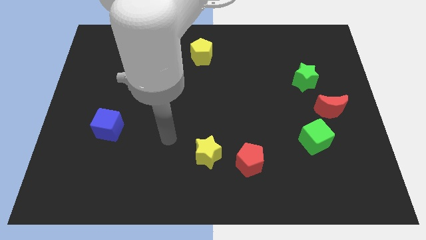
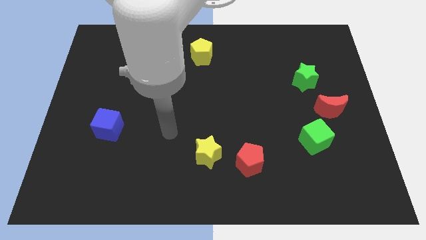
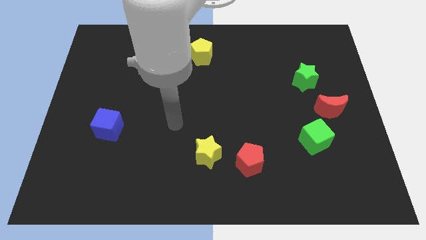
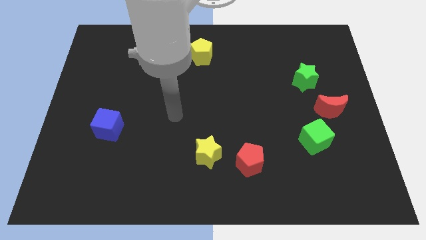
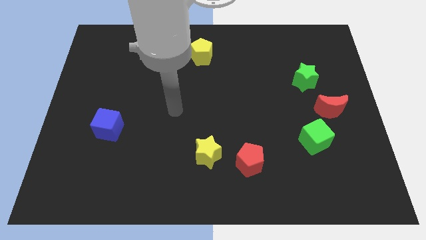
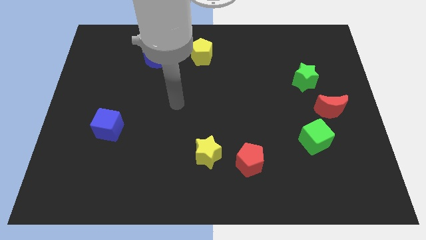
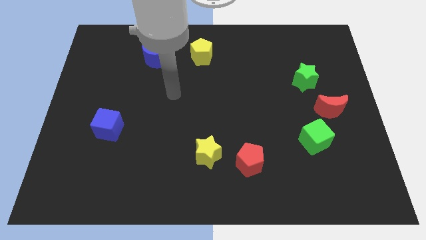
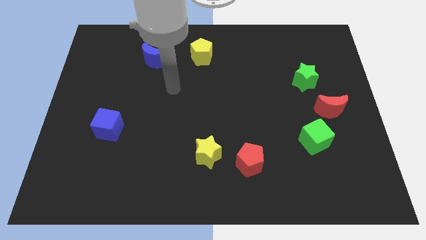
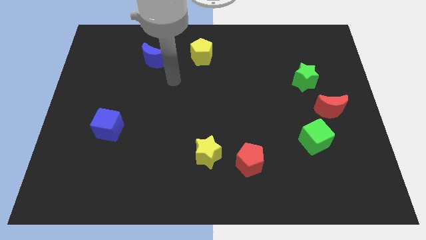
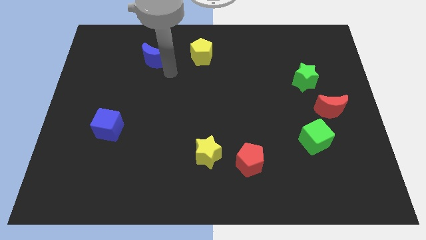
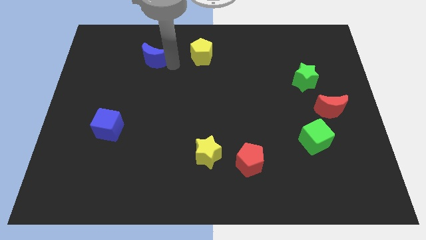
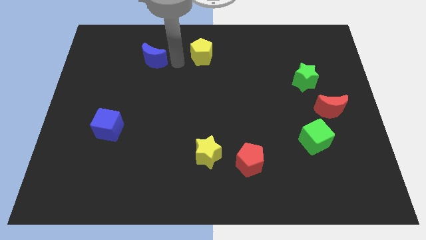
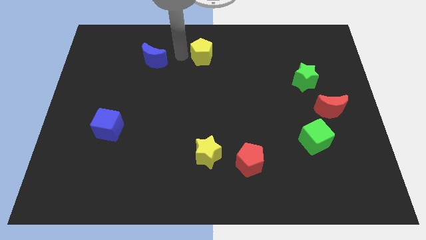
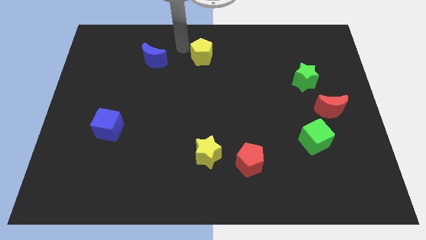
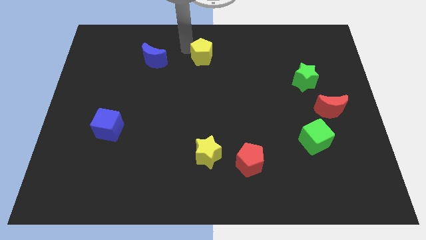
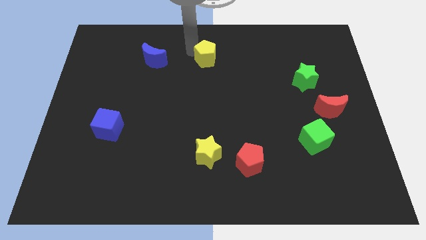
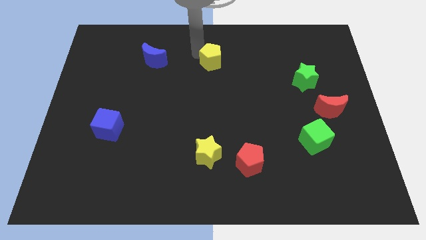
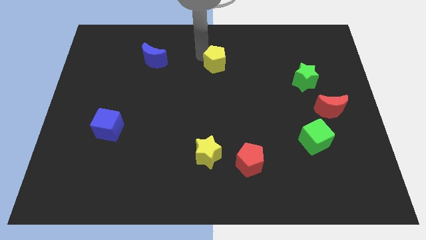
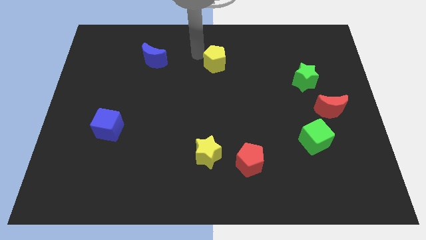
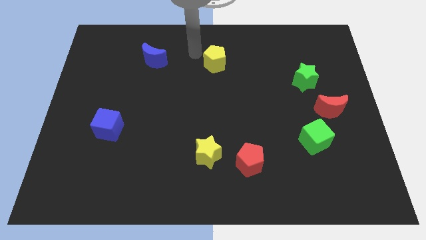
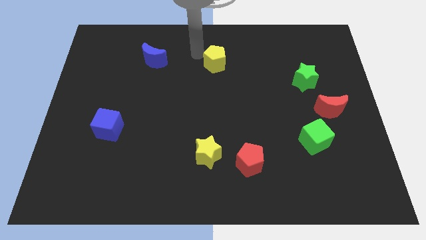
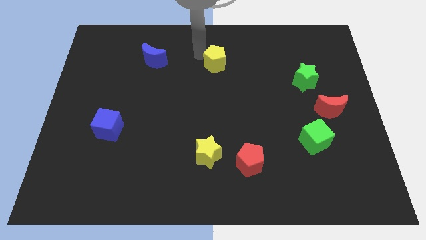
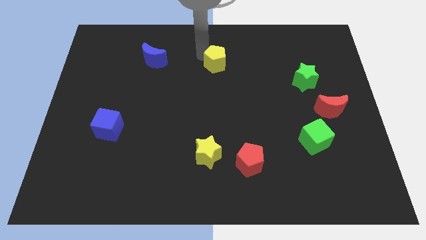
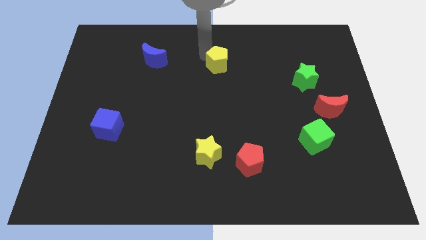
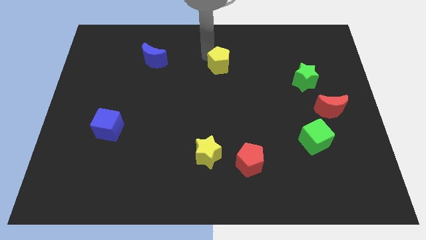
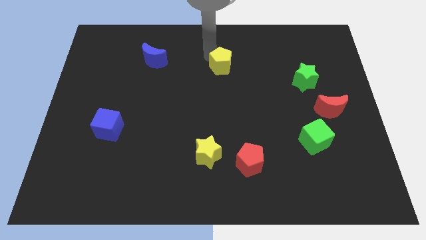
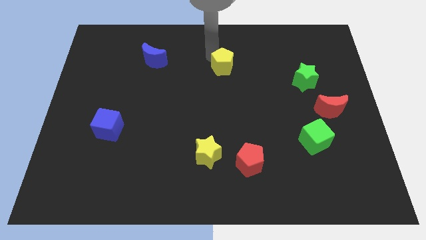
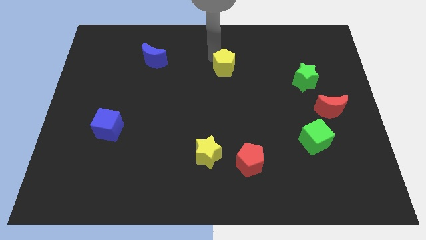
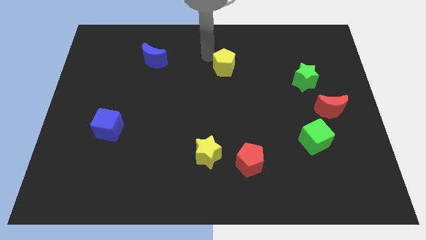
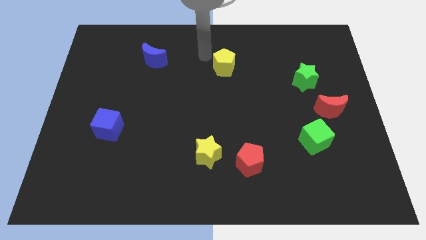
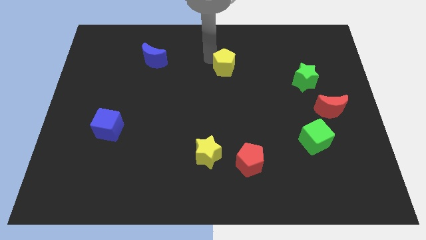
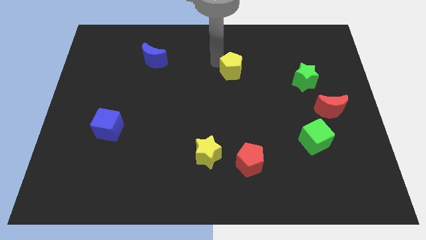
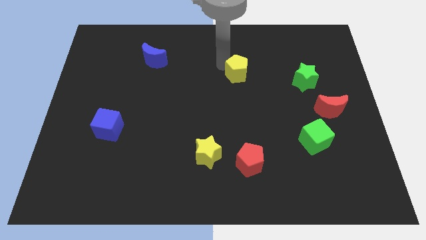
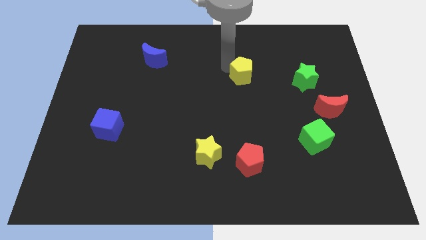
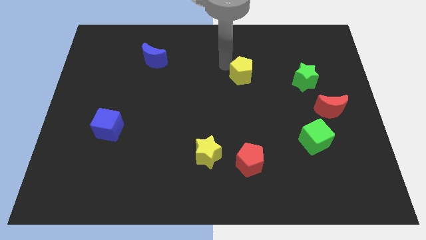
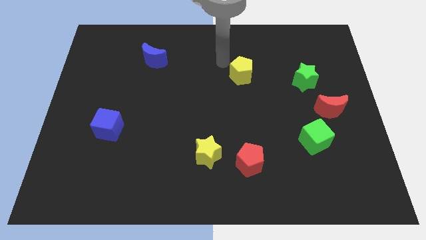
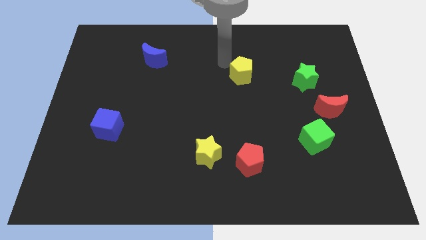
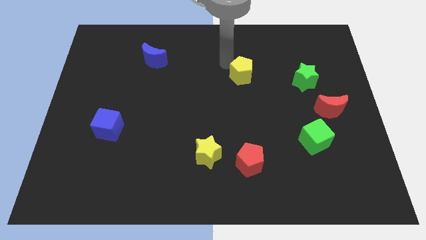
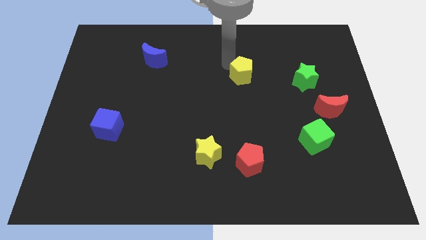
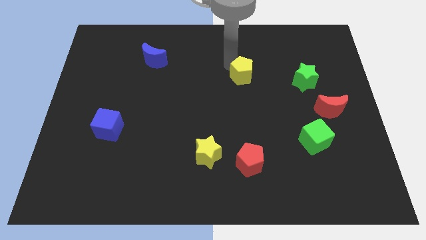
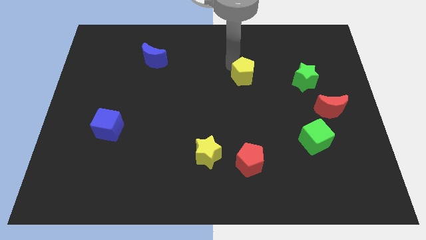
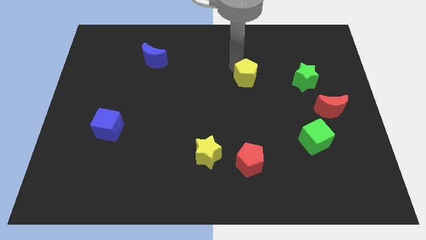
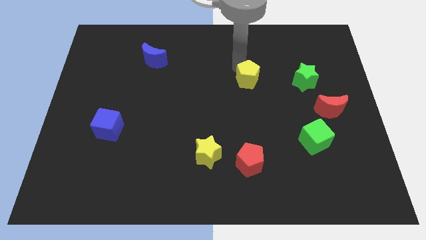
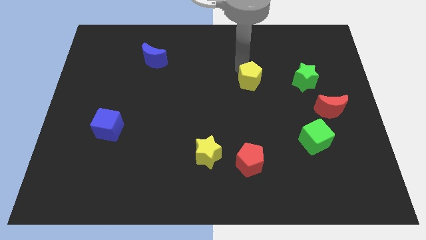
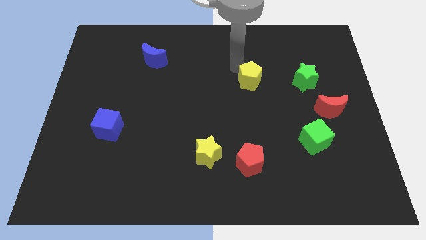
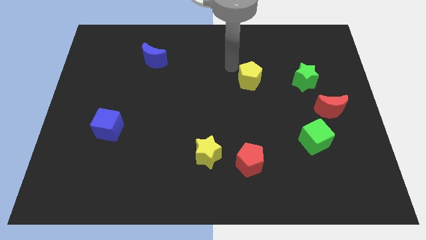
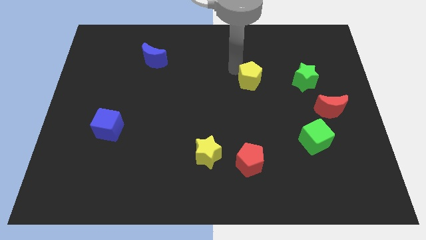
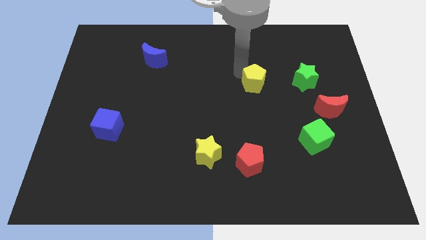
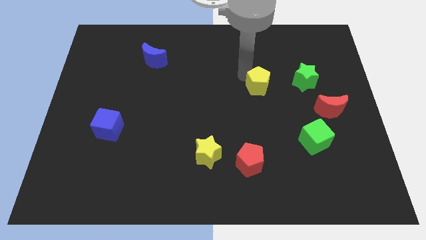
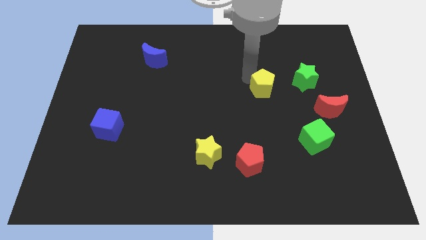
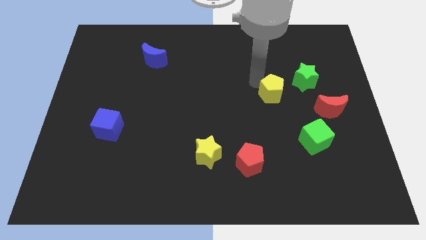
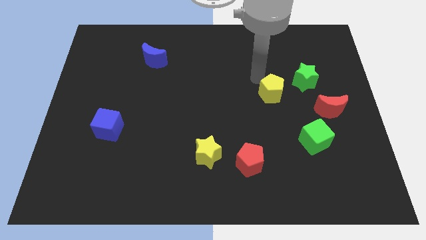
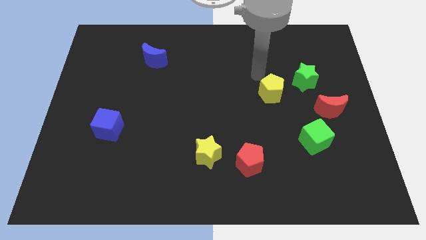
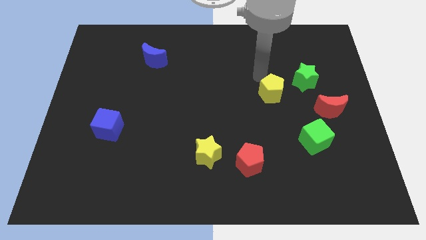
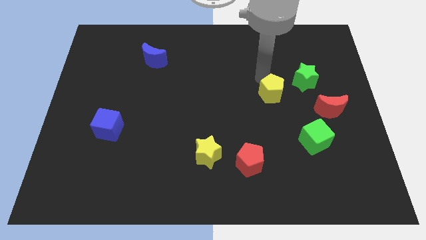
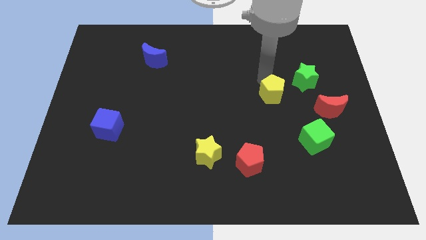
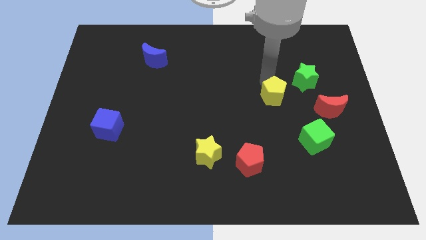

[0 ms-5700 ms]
slide the yellow pentagon to the left side of the red moon

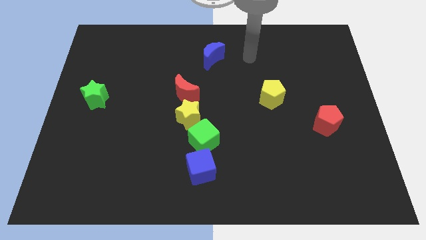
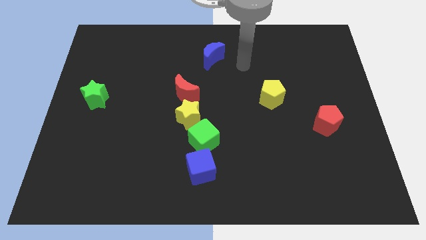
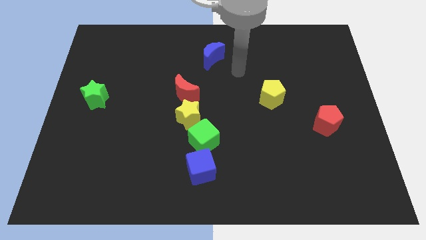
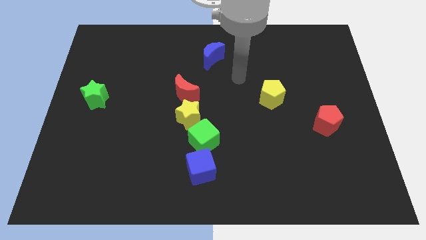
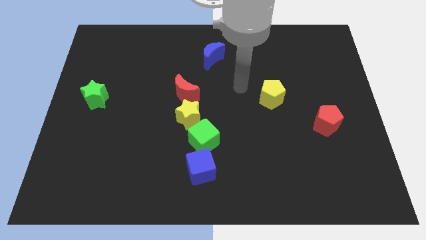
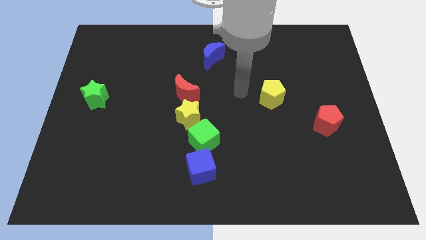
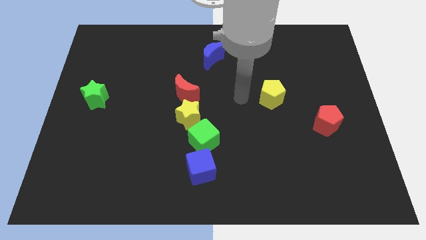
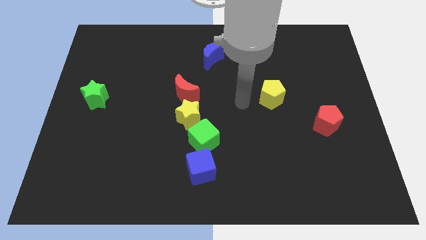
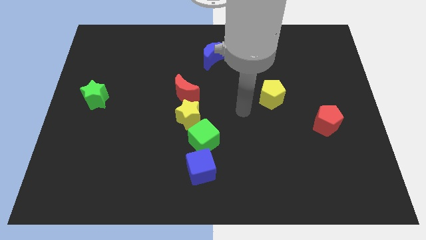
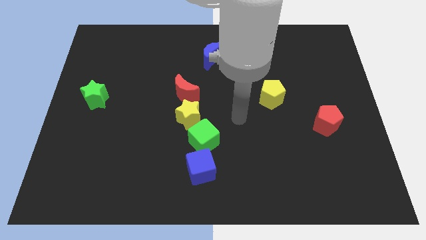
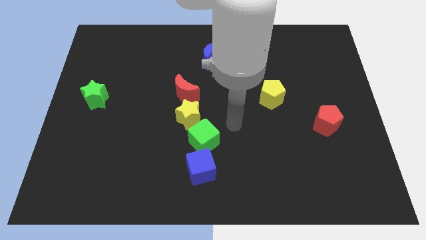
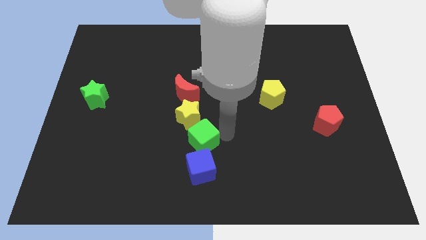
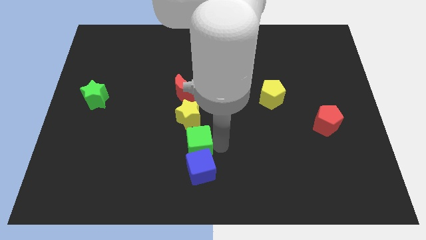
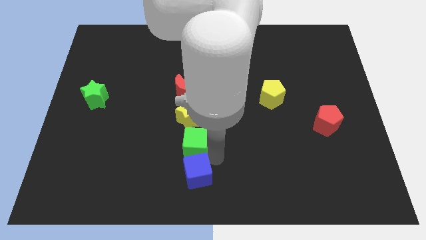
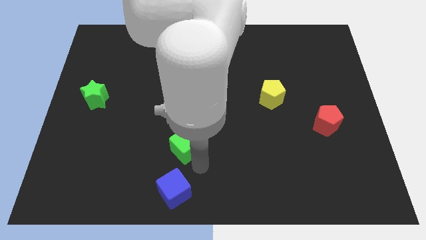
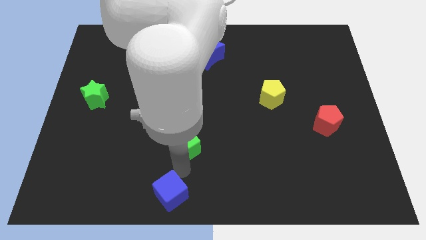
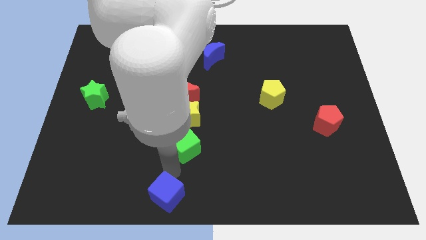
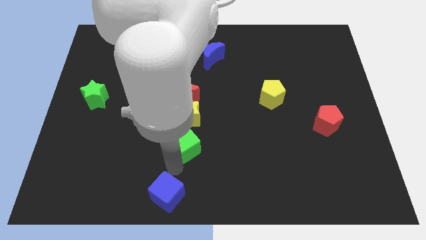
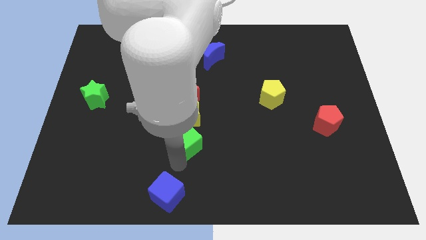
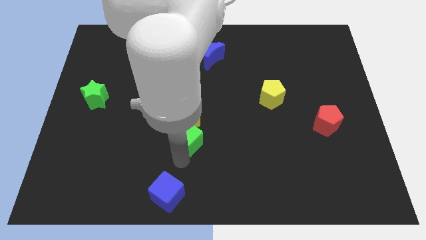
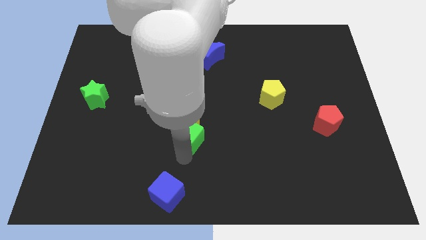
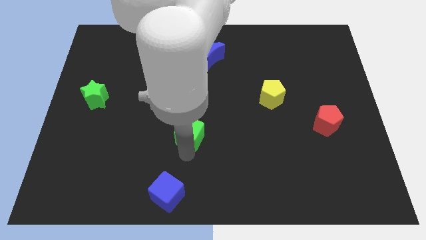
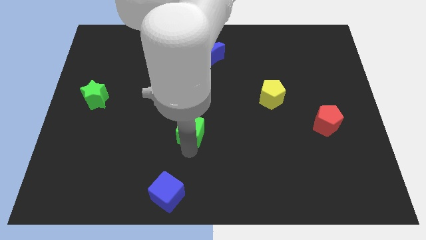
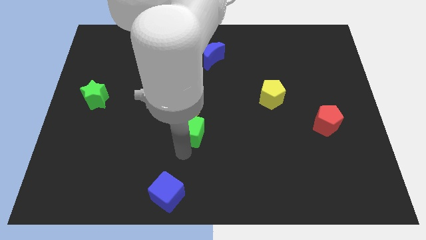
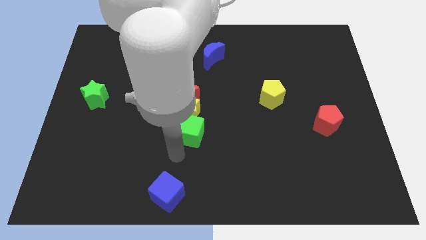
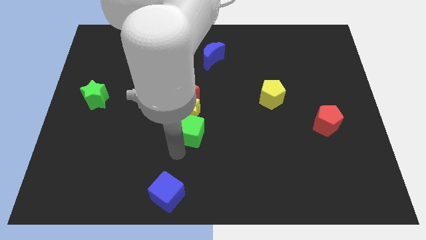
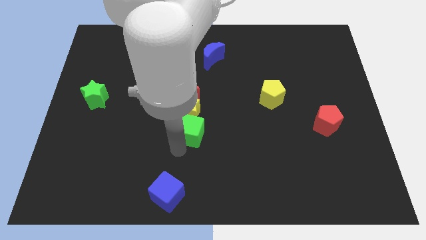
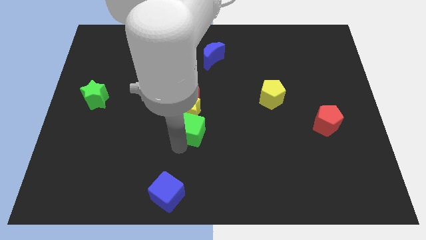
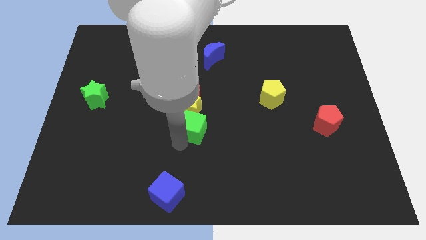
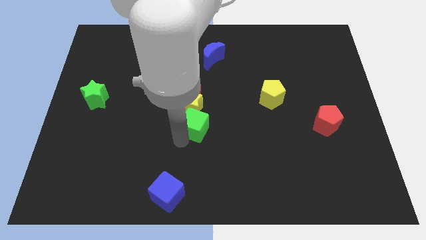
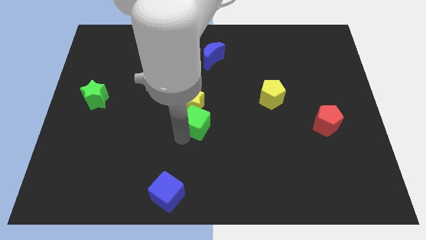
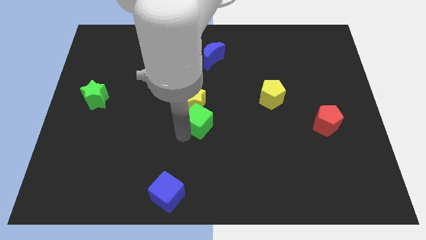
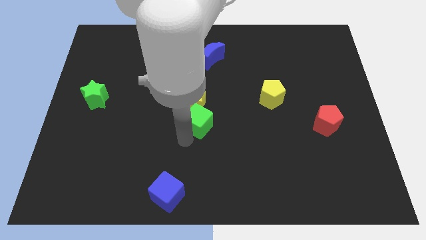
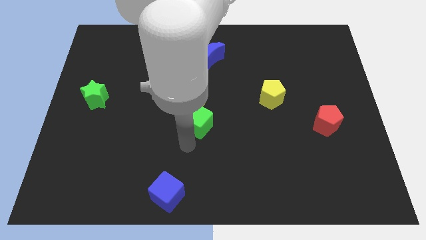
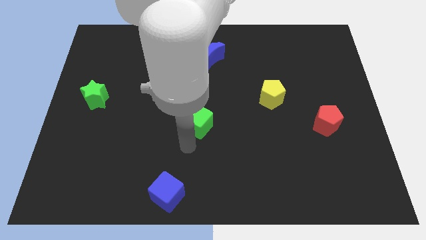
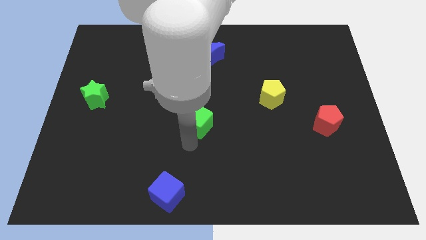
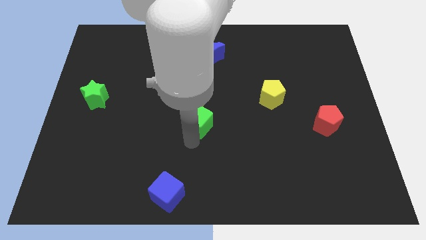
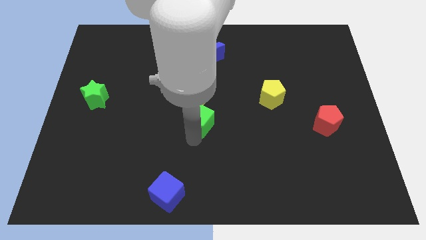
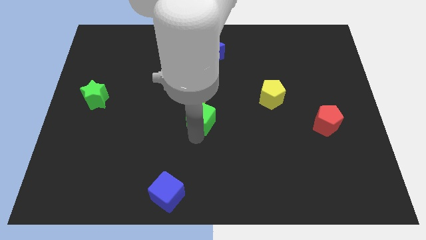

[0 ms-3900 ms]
move the green cube diagonally down and to the right of the red moon
